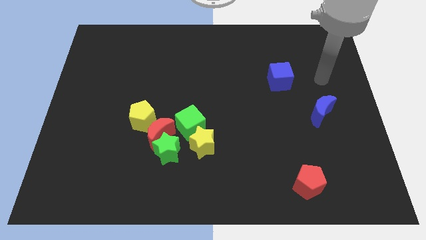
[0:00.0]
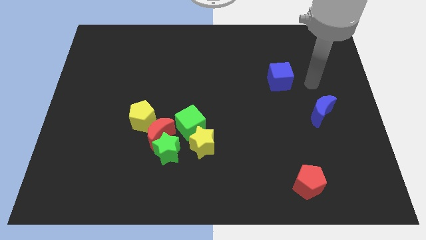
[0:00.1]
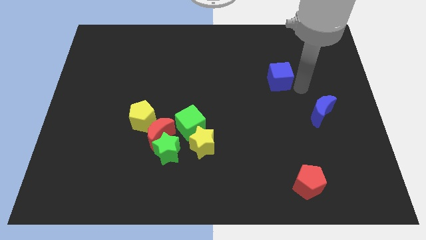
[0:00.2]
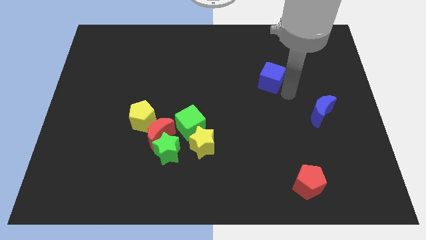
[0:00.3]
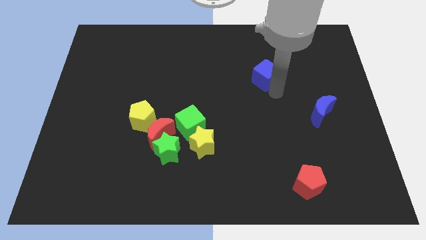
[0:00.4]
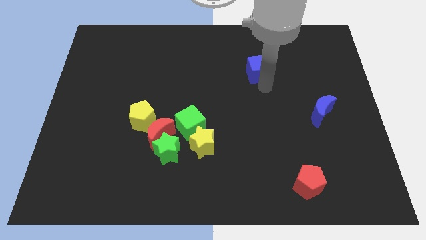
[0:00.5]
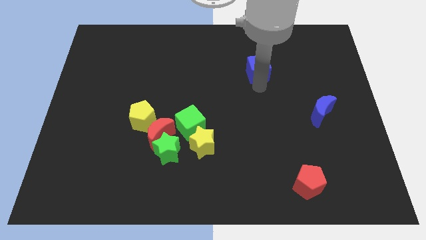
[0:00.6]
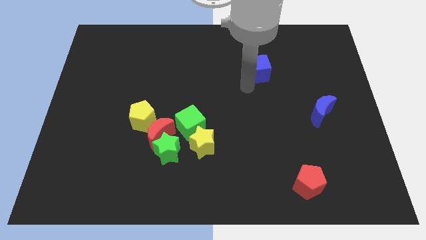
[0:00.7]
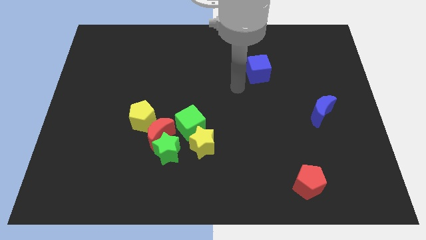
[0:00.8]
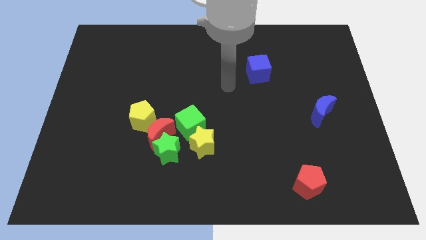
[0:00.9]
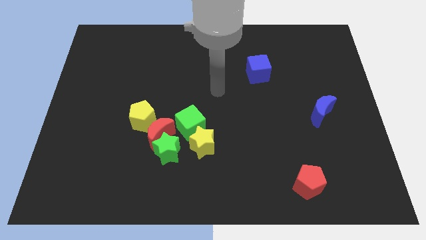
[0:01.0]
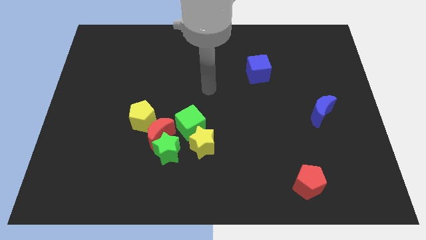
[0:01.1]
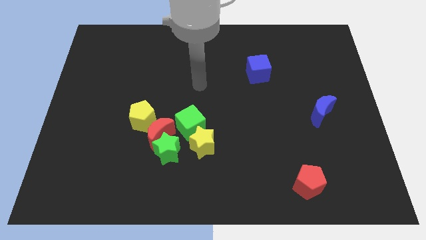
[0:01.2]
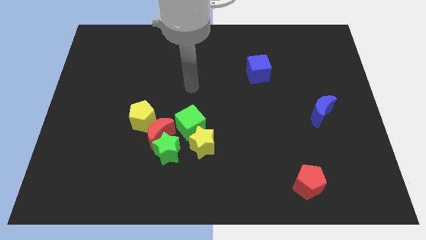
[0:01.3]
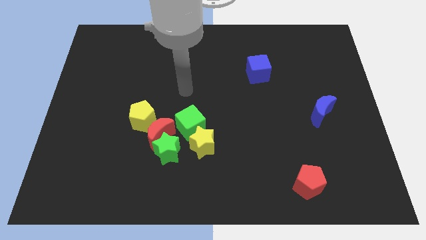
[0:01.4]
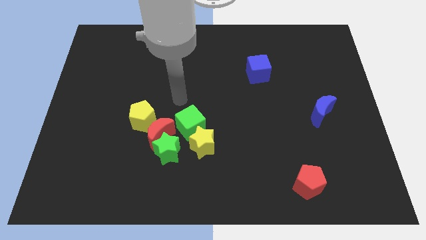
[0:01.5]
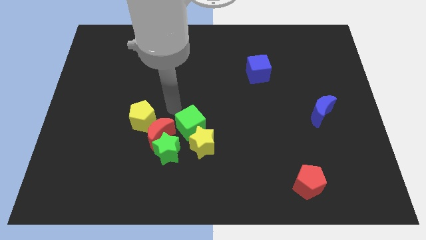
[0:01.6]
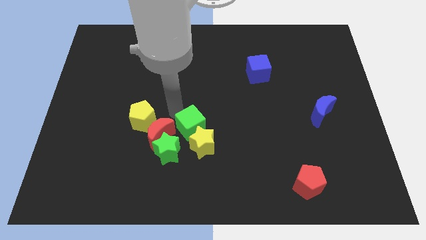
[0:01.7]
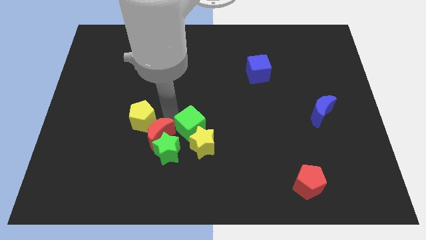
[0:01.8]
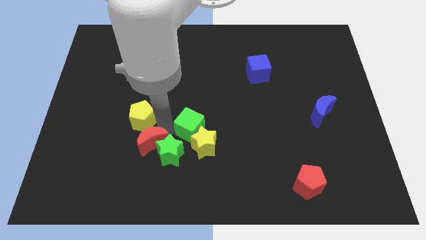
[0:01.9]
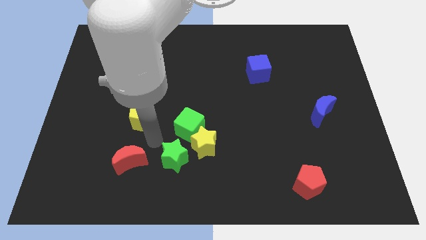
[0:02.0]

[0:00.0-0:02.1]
pull the yellow pentagon apart from the red moon

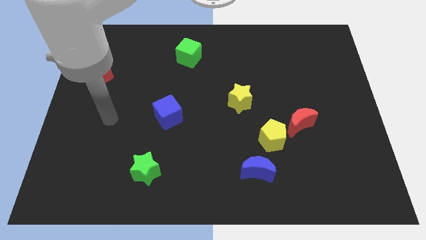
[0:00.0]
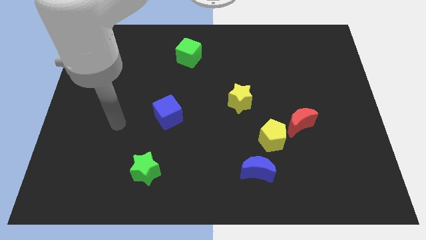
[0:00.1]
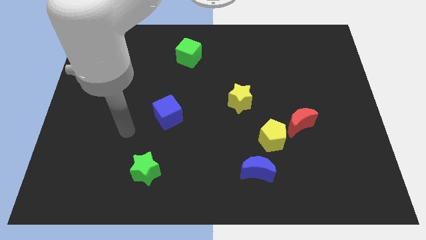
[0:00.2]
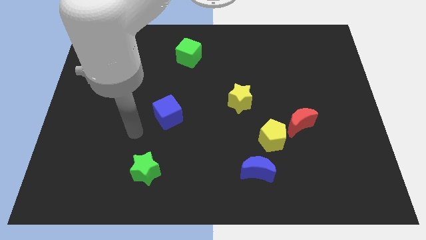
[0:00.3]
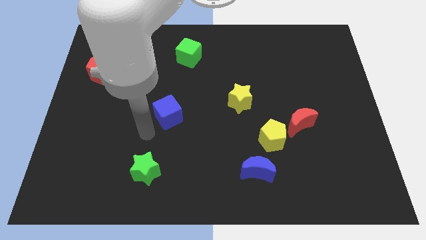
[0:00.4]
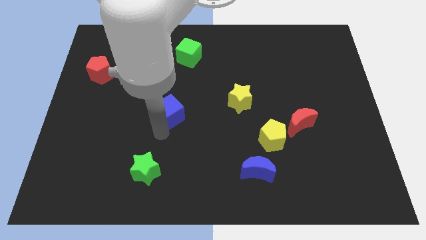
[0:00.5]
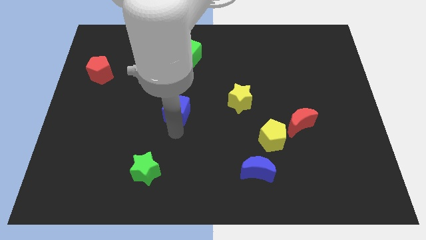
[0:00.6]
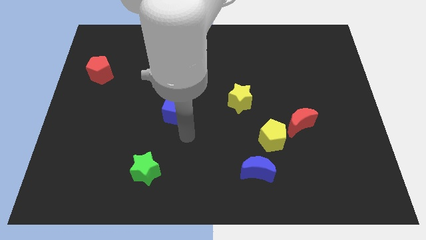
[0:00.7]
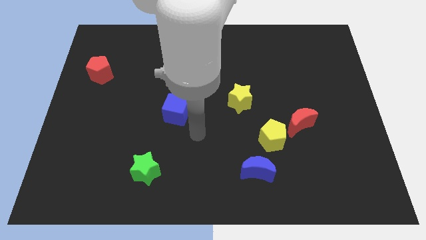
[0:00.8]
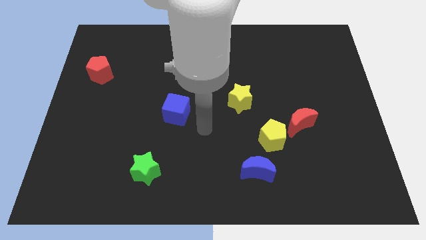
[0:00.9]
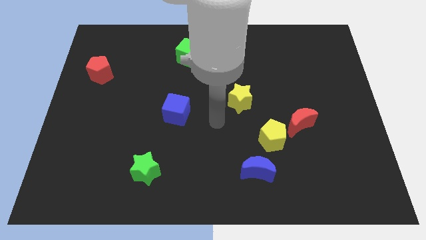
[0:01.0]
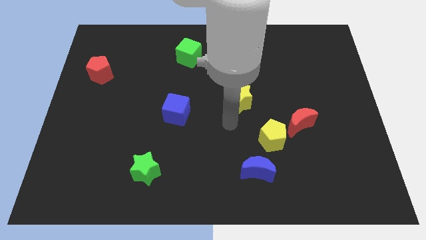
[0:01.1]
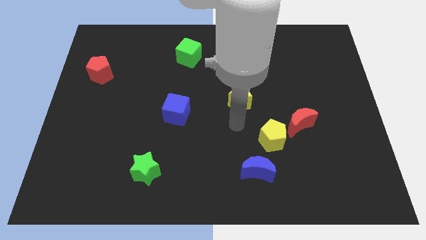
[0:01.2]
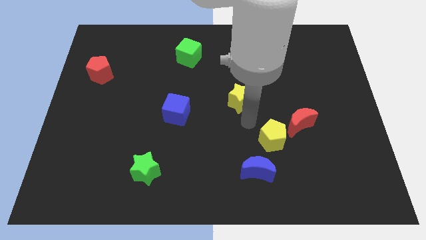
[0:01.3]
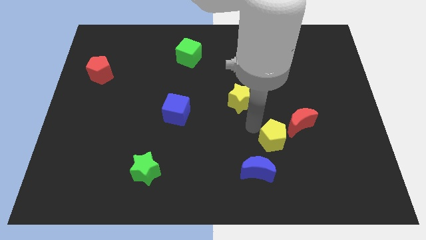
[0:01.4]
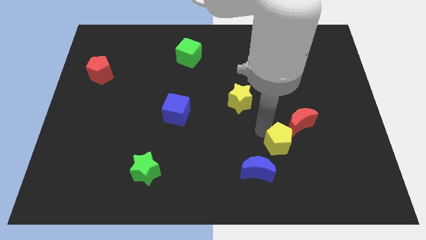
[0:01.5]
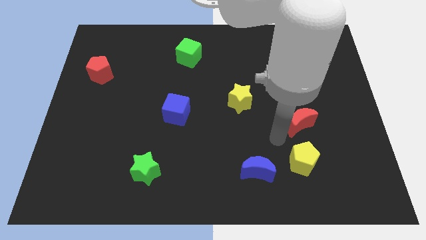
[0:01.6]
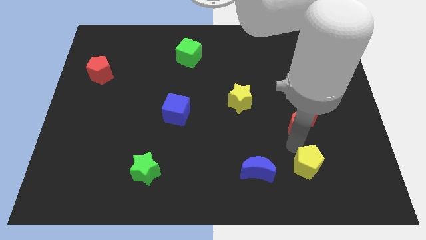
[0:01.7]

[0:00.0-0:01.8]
move the red moon away from the yellow pentagon

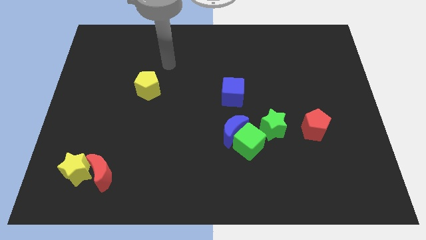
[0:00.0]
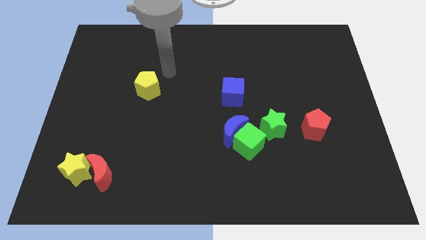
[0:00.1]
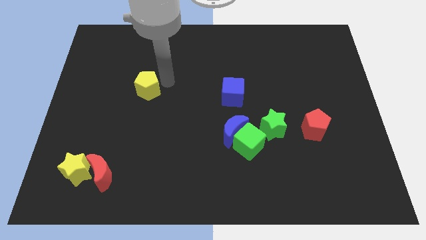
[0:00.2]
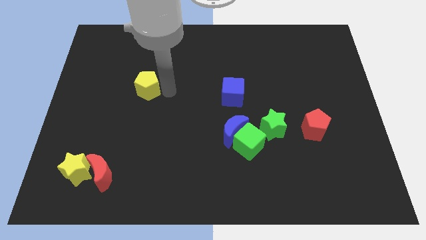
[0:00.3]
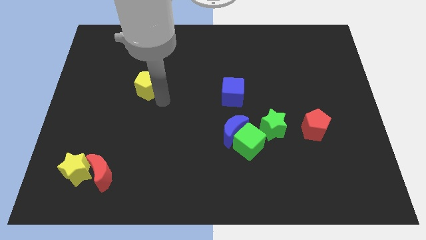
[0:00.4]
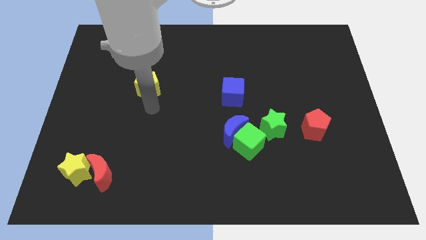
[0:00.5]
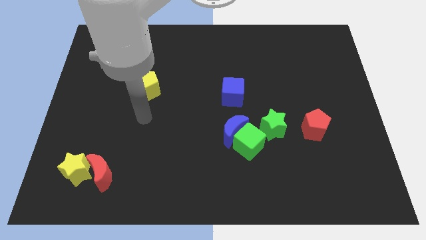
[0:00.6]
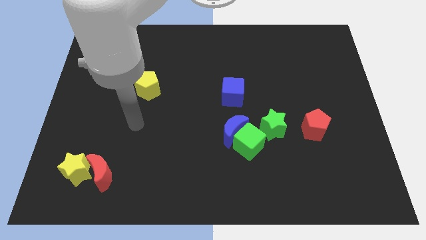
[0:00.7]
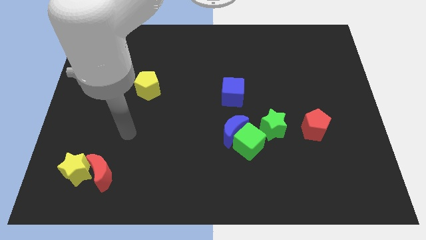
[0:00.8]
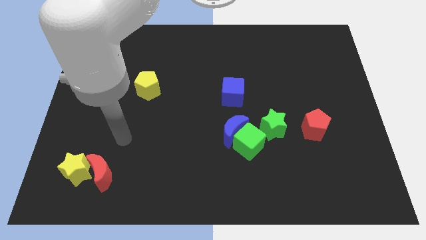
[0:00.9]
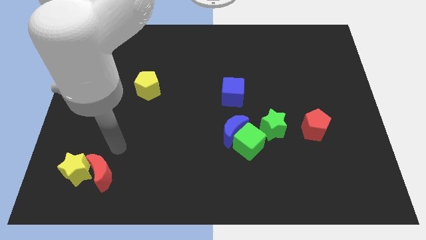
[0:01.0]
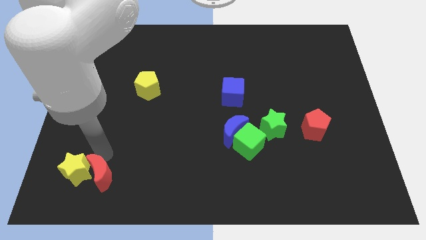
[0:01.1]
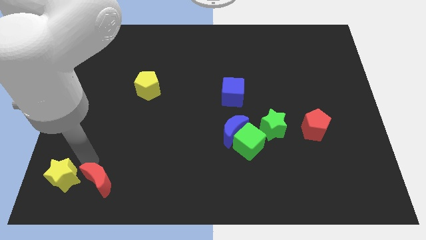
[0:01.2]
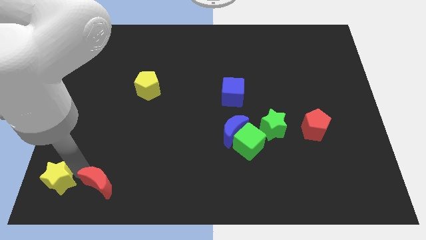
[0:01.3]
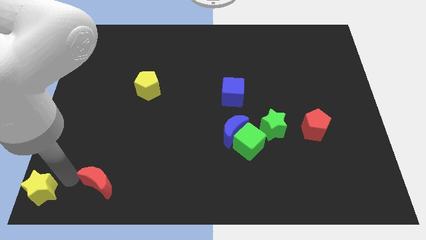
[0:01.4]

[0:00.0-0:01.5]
separate the red moon from the yellow star

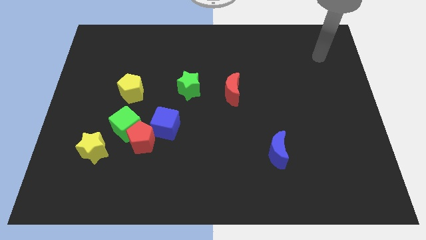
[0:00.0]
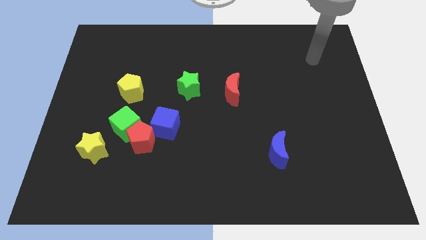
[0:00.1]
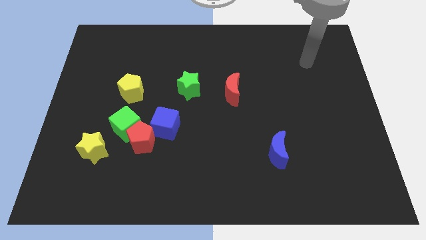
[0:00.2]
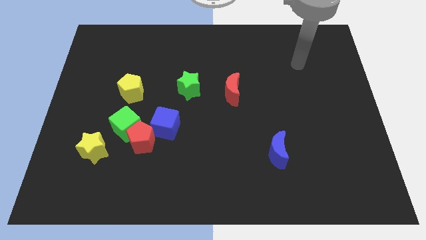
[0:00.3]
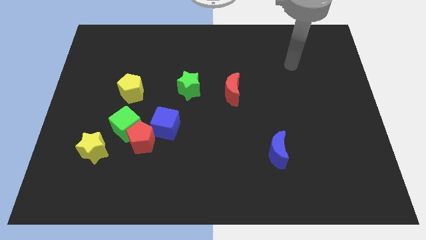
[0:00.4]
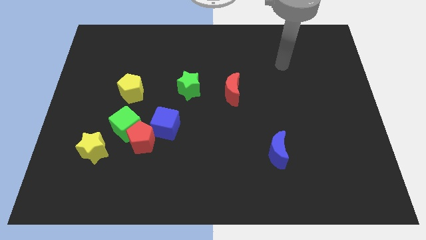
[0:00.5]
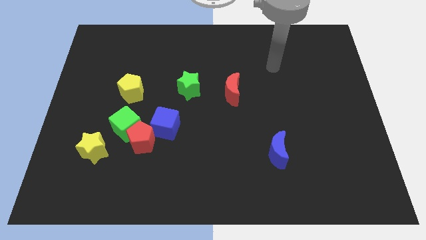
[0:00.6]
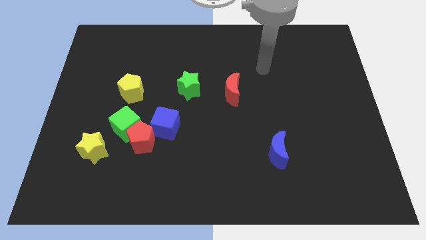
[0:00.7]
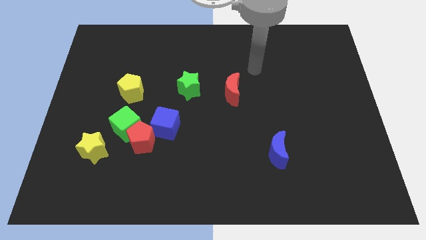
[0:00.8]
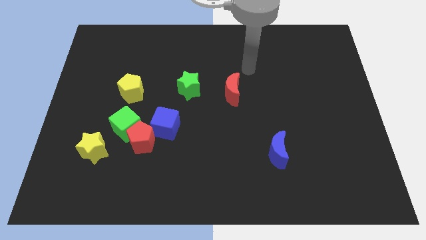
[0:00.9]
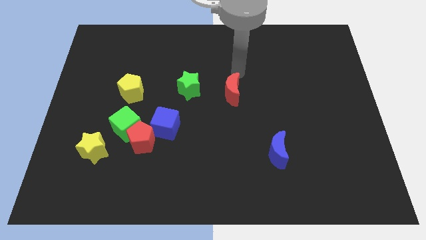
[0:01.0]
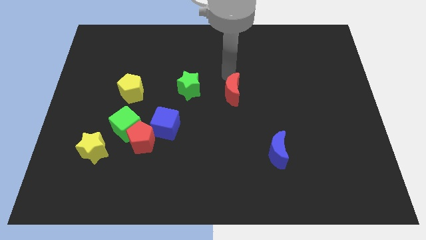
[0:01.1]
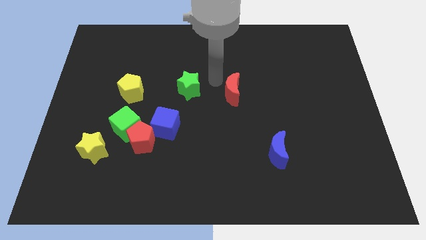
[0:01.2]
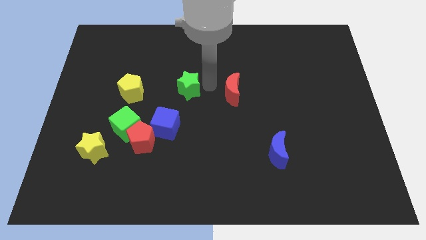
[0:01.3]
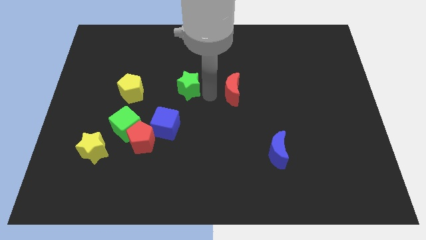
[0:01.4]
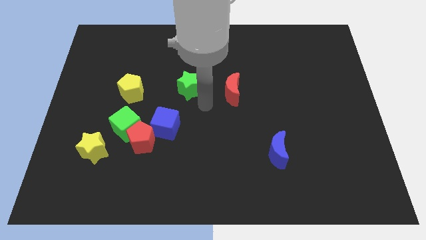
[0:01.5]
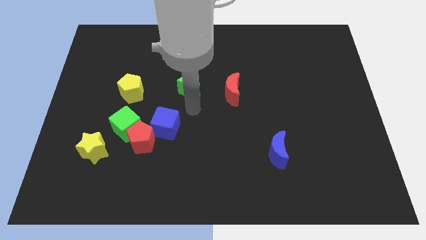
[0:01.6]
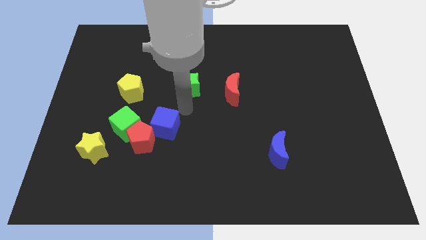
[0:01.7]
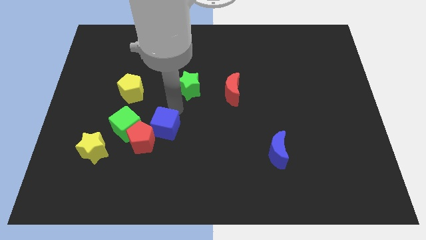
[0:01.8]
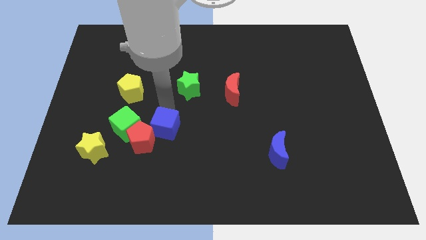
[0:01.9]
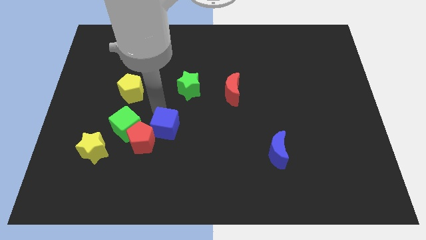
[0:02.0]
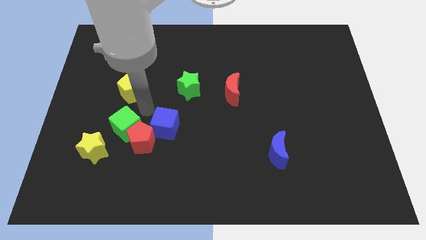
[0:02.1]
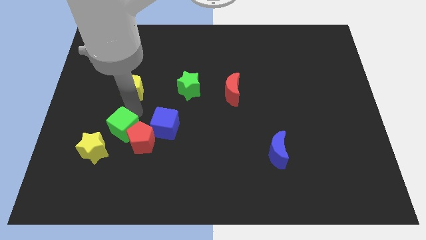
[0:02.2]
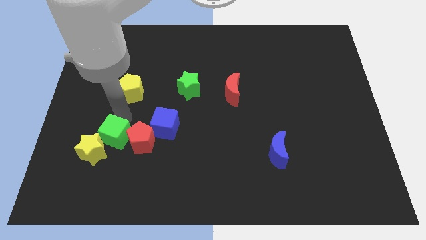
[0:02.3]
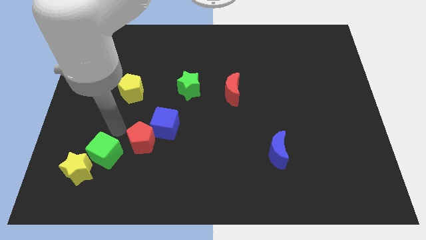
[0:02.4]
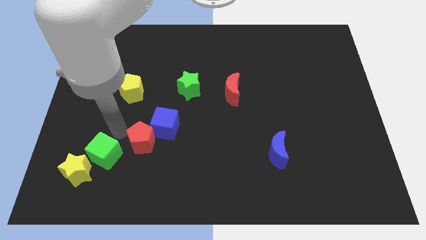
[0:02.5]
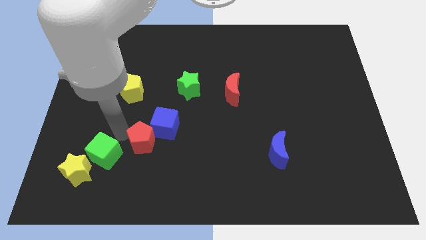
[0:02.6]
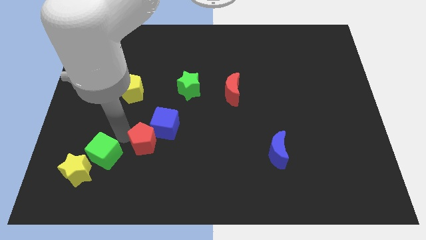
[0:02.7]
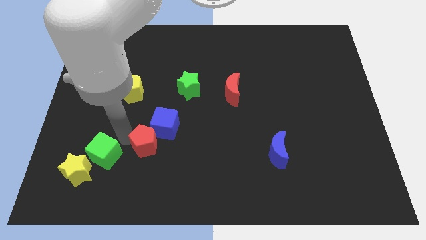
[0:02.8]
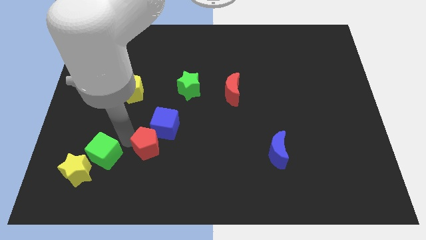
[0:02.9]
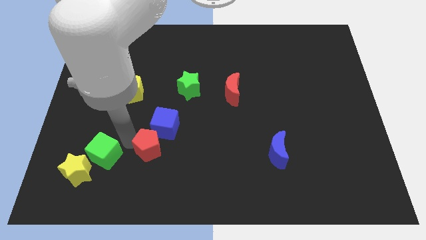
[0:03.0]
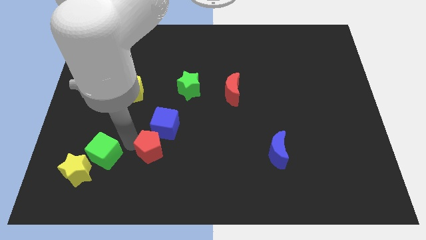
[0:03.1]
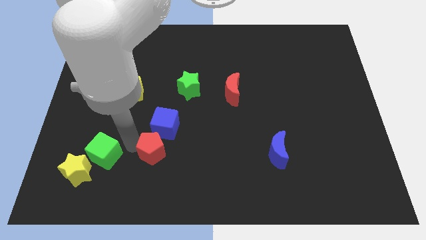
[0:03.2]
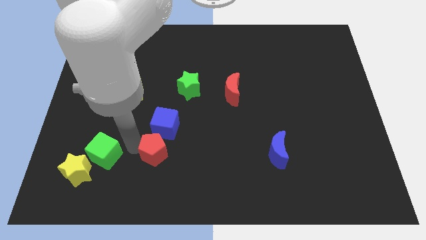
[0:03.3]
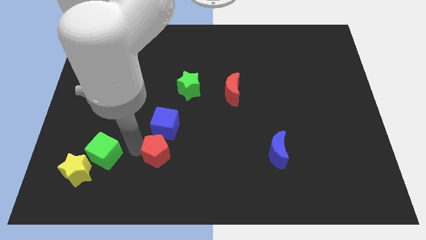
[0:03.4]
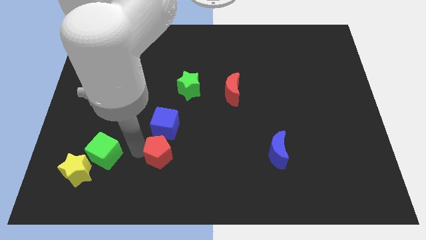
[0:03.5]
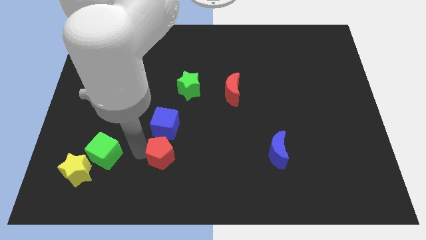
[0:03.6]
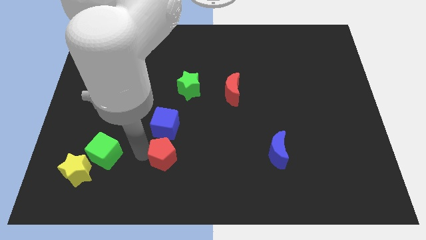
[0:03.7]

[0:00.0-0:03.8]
move the red pentagon away from the clump

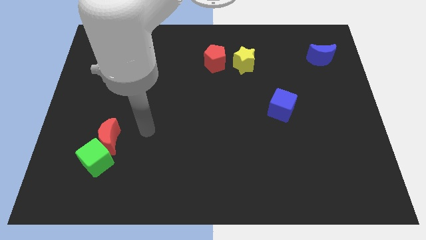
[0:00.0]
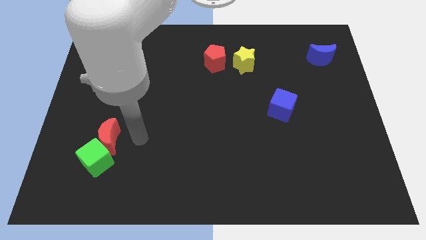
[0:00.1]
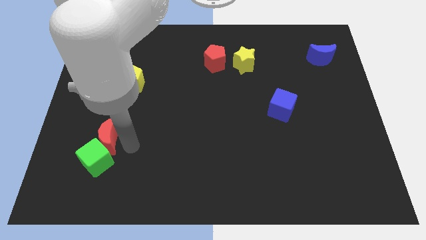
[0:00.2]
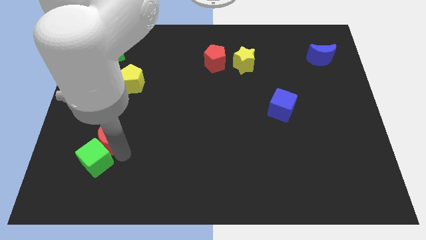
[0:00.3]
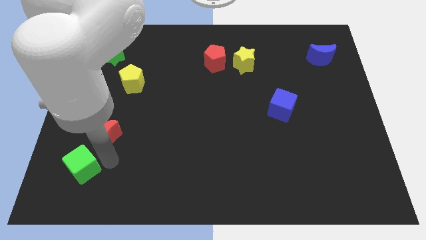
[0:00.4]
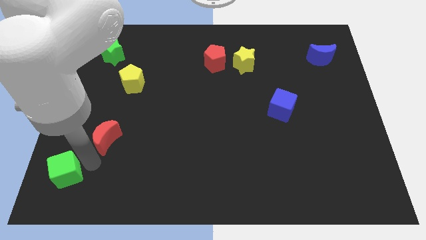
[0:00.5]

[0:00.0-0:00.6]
pull the red moon apart from the green cube
